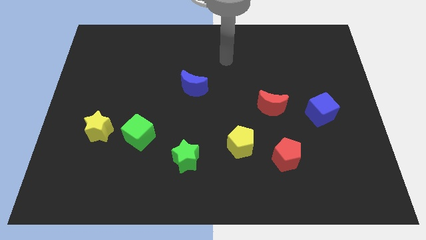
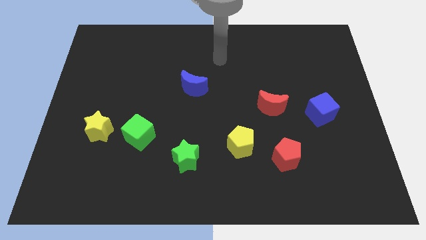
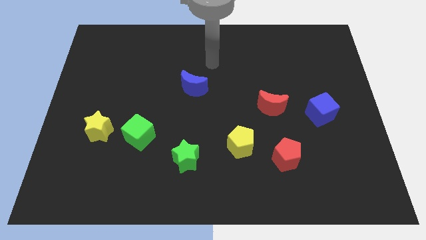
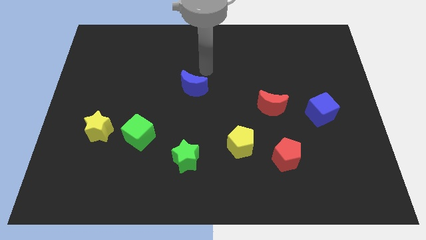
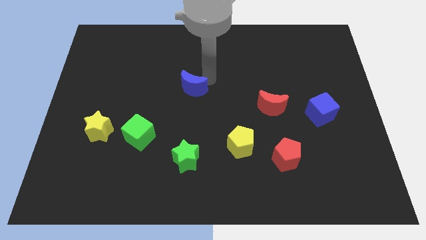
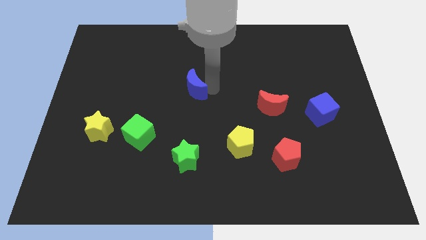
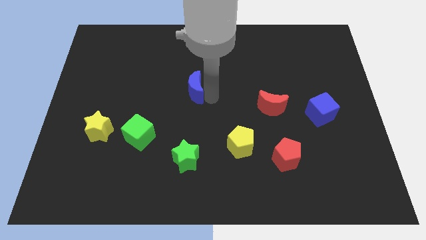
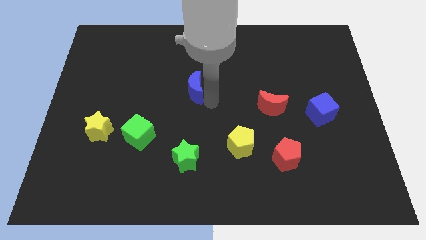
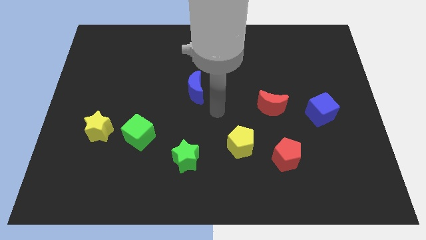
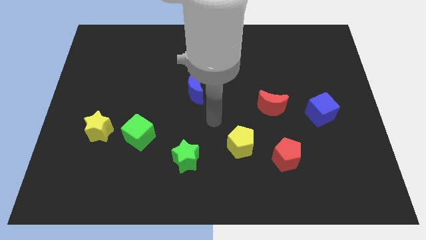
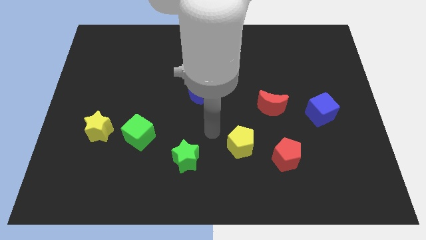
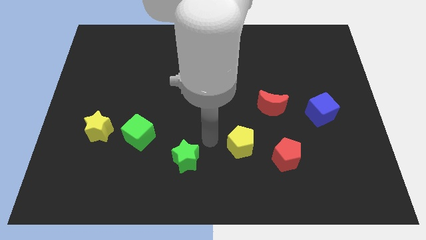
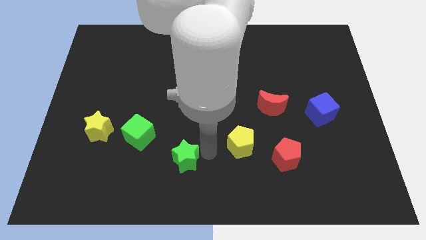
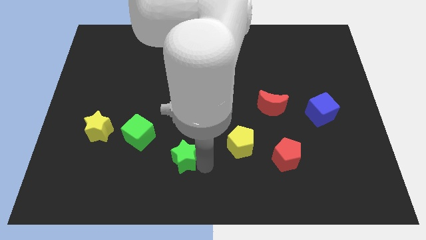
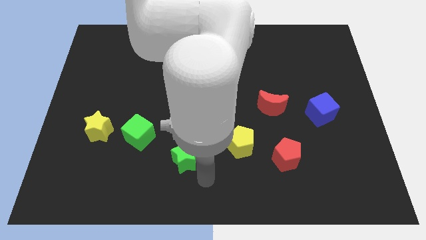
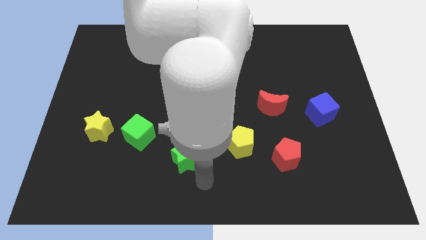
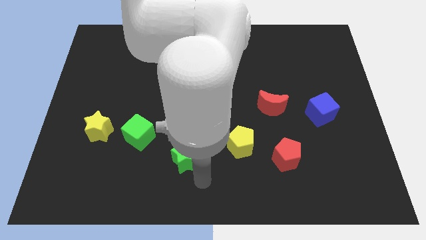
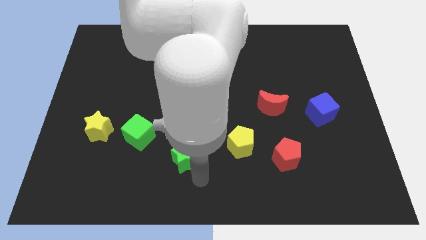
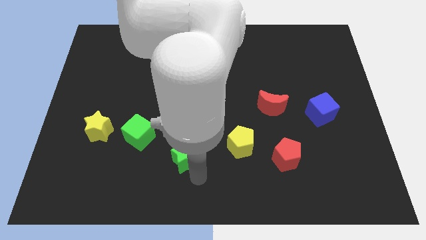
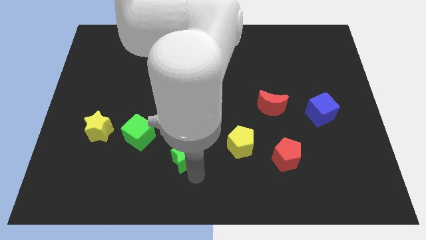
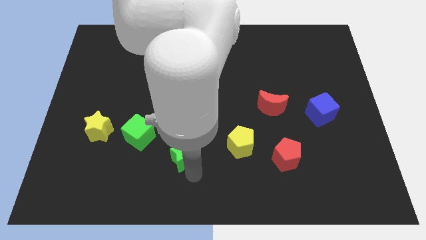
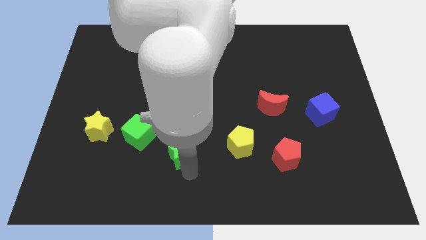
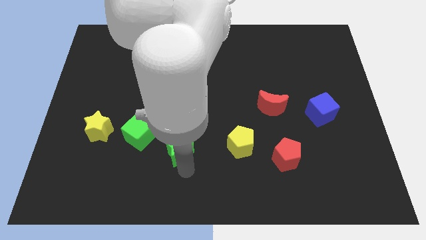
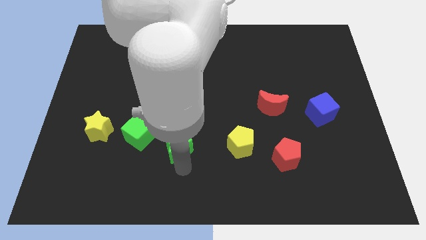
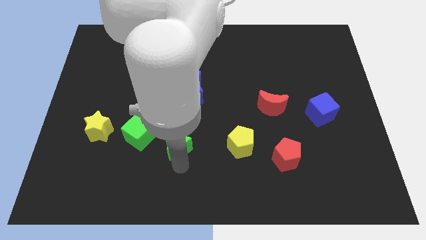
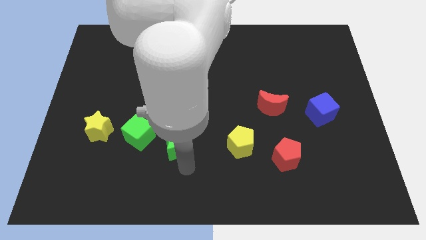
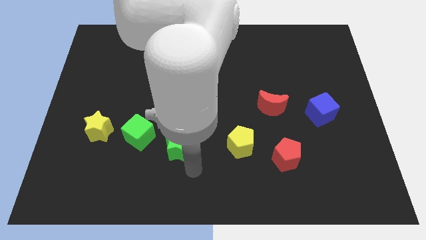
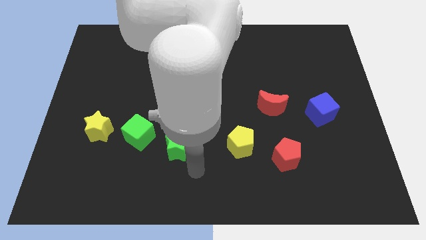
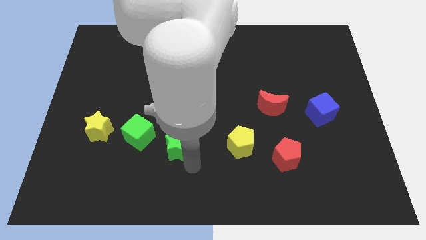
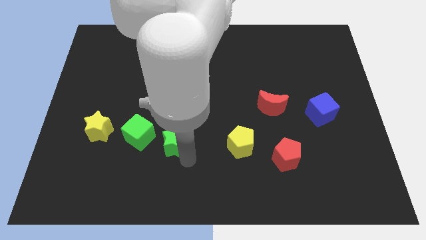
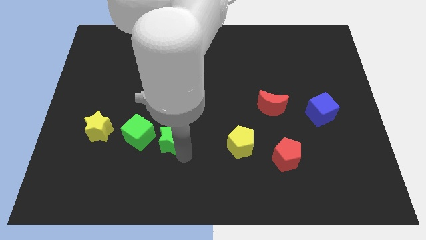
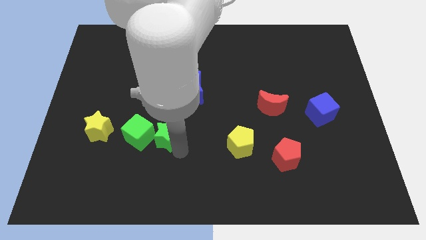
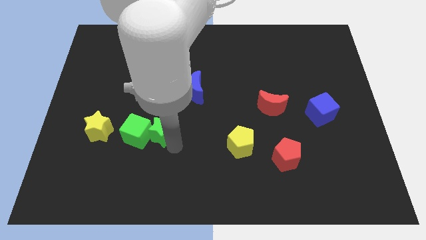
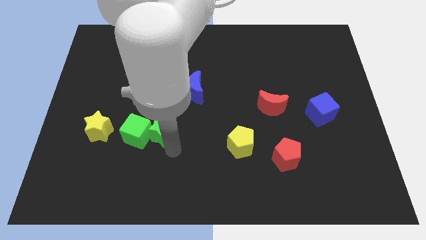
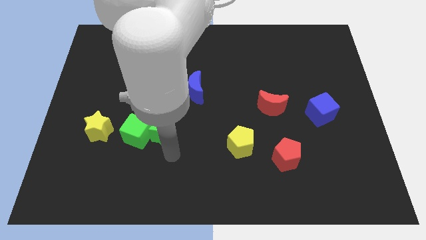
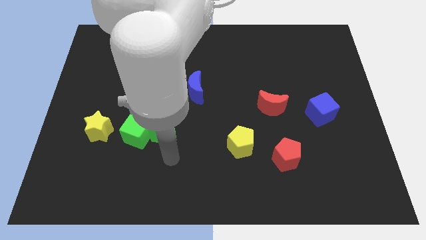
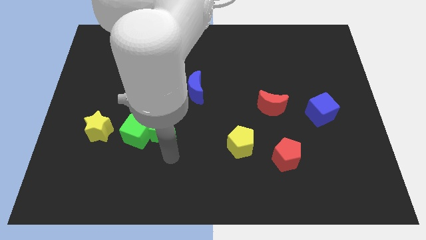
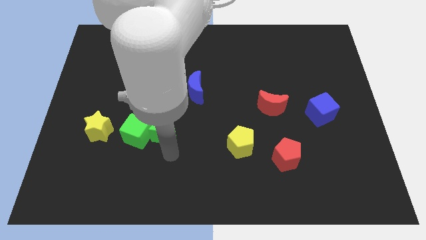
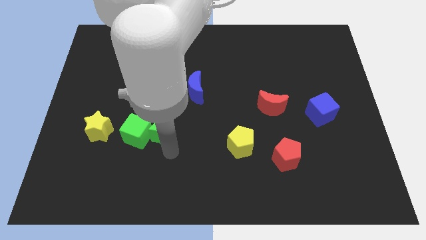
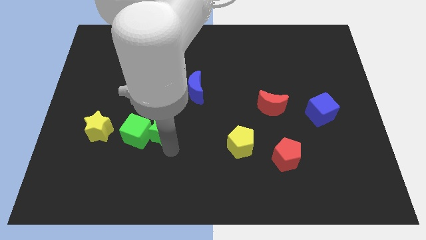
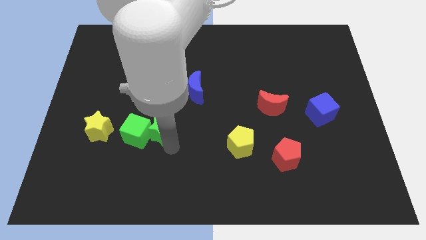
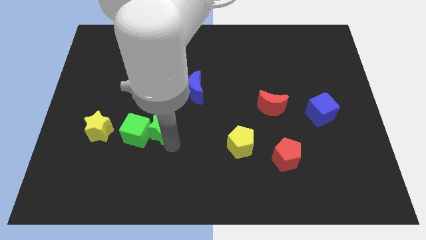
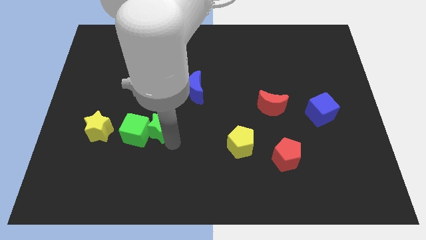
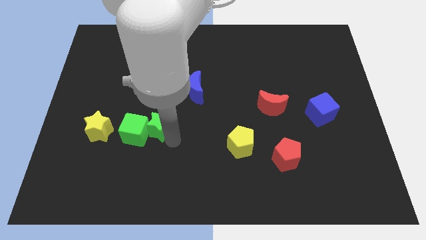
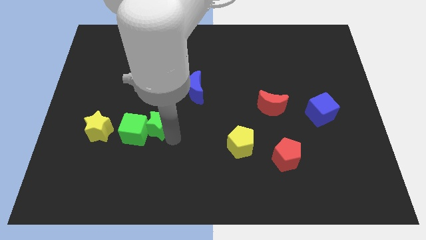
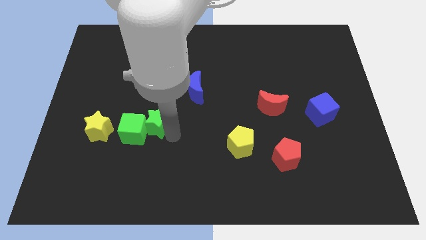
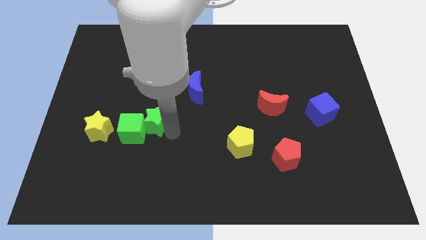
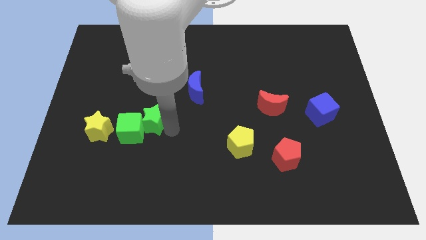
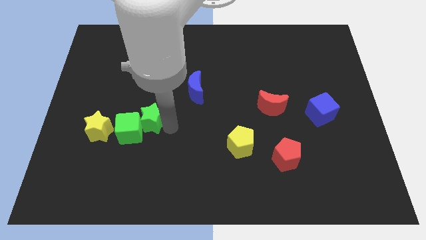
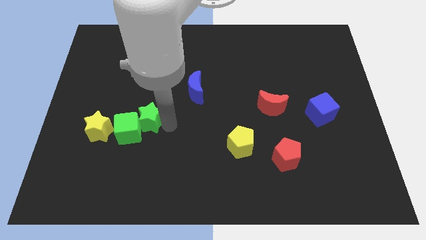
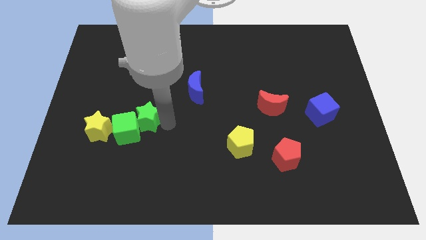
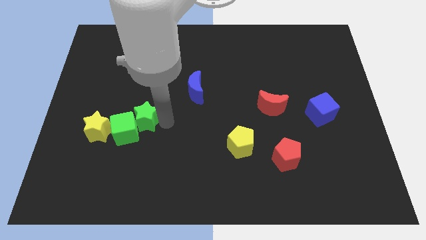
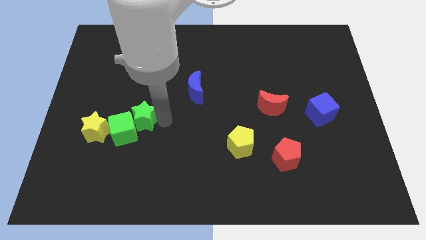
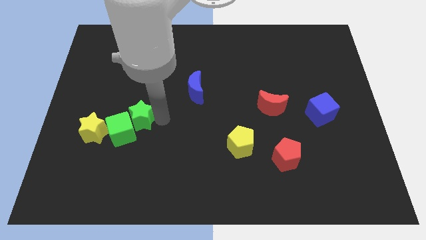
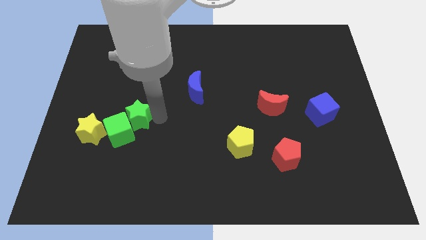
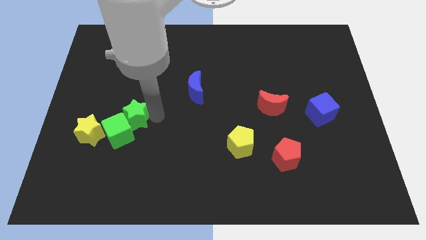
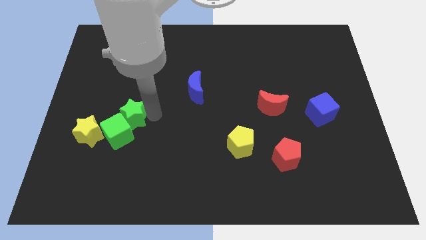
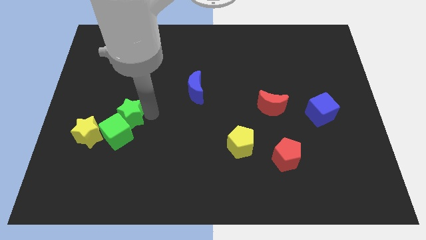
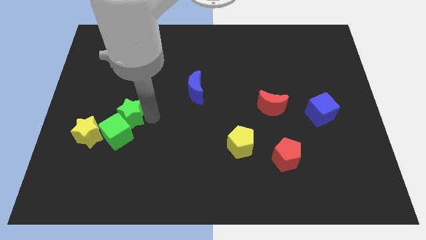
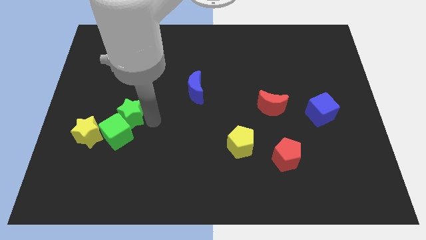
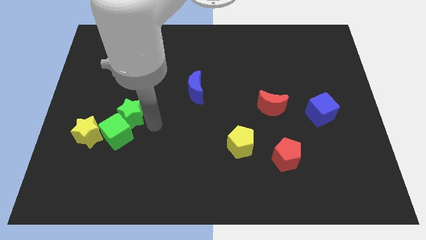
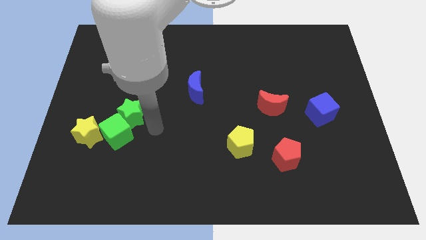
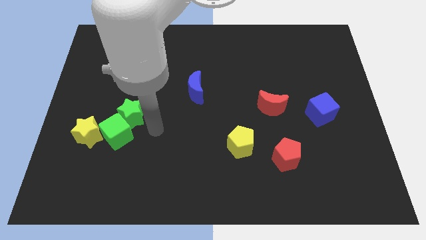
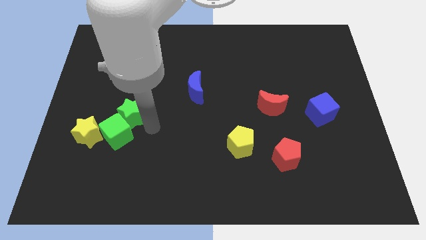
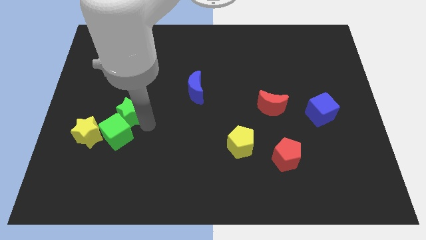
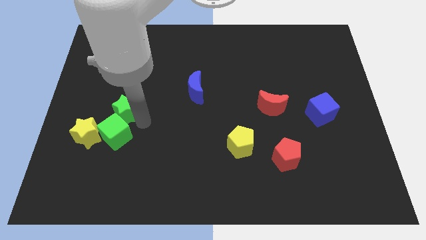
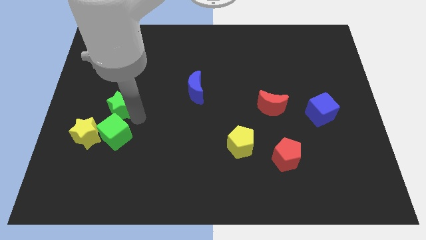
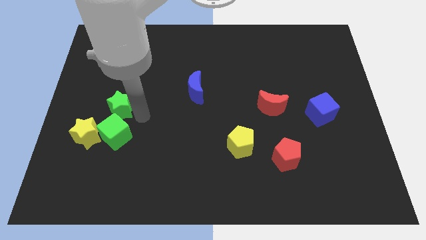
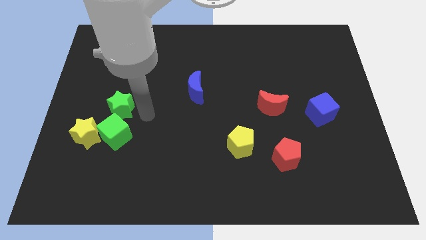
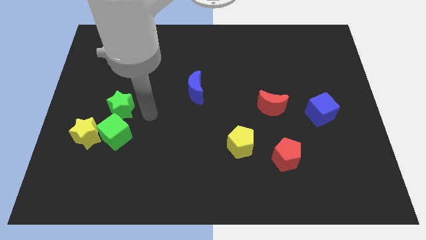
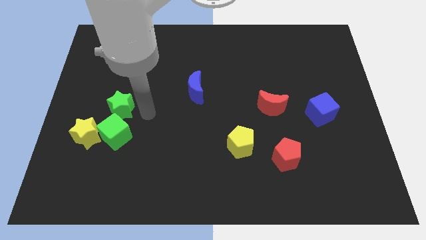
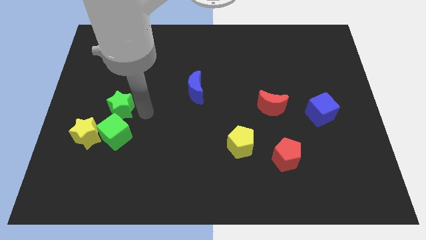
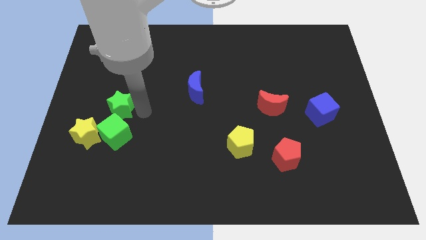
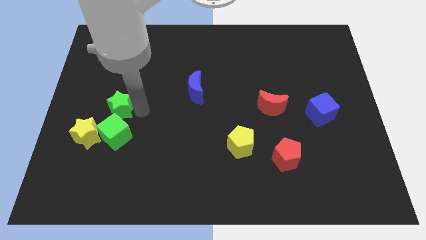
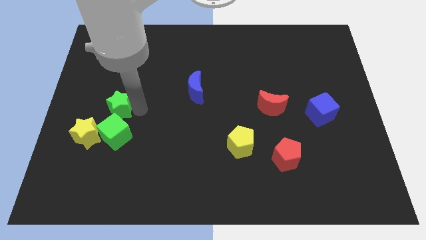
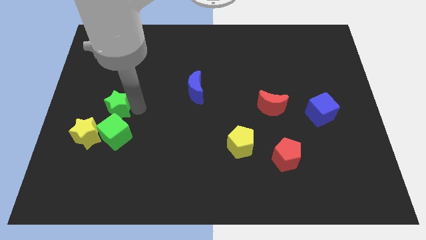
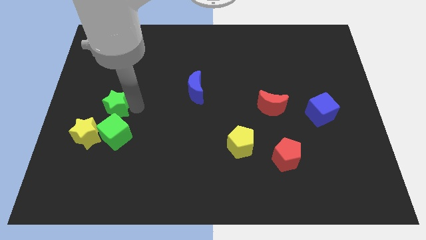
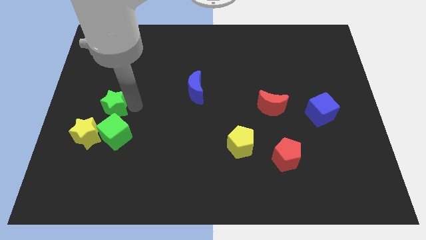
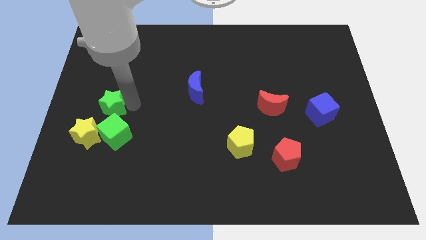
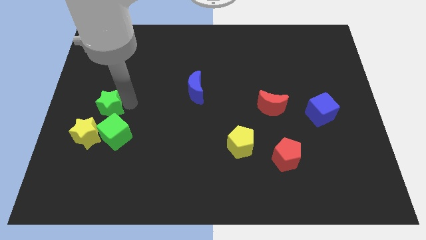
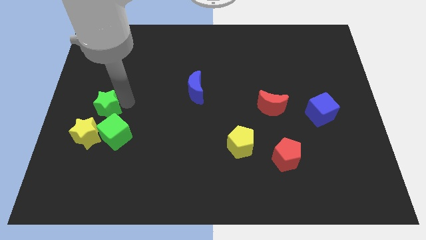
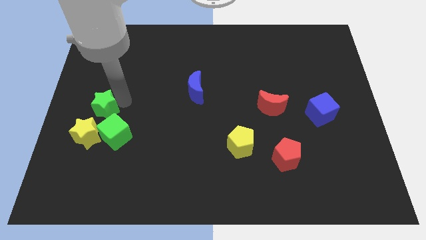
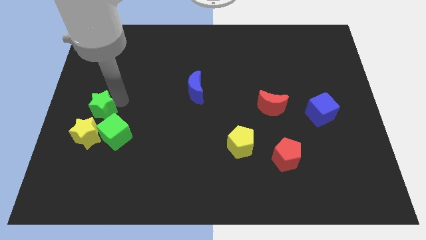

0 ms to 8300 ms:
push the green star to the left side of the board
